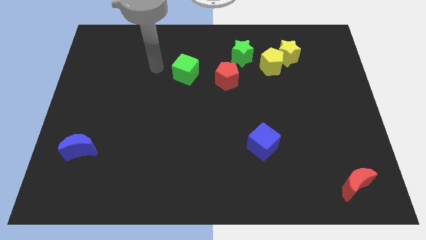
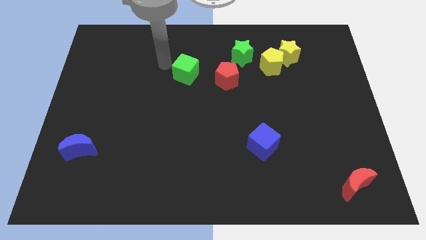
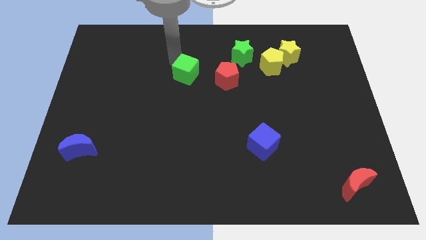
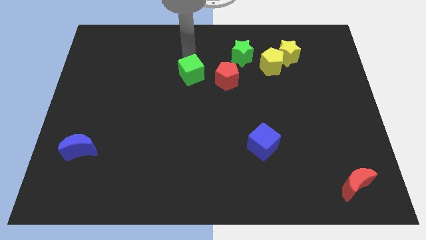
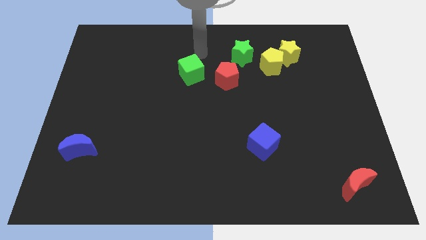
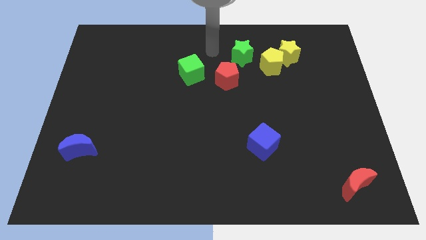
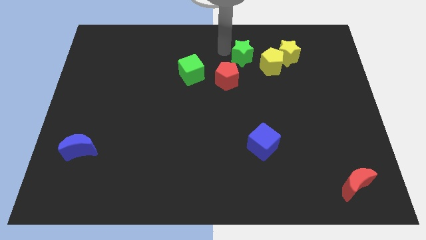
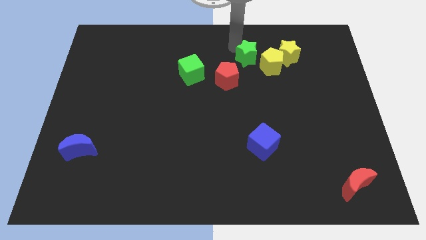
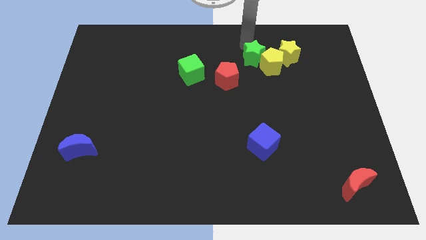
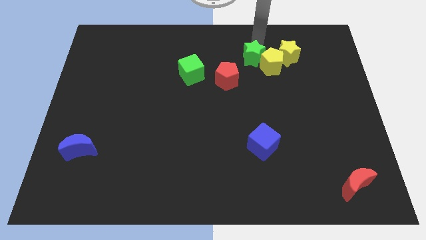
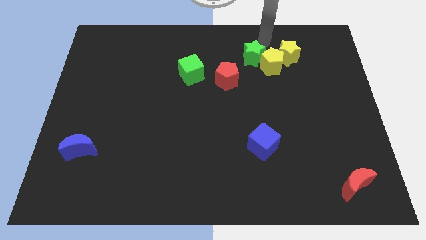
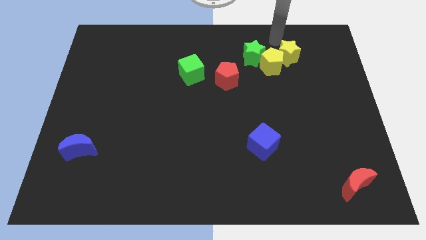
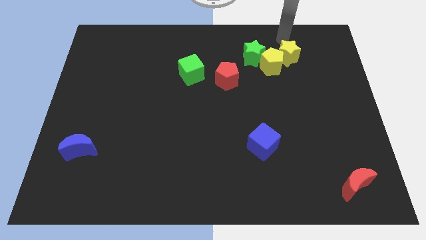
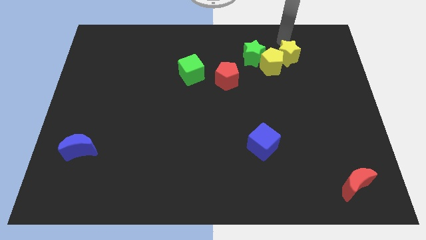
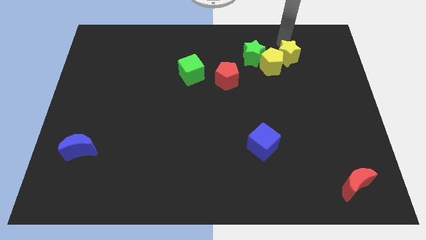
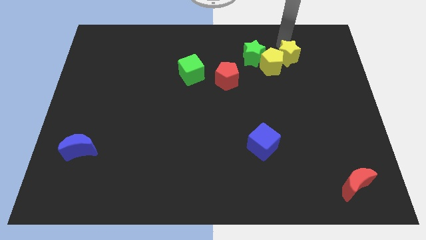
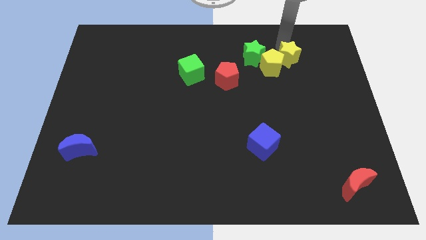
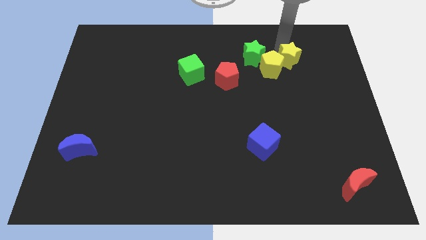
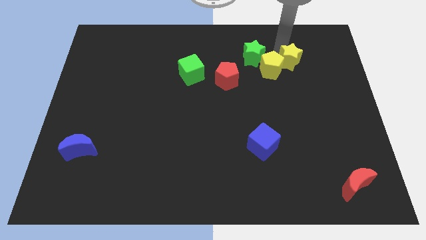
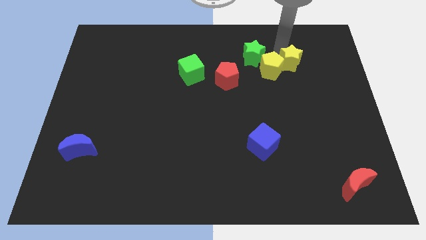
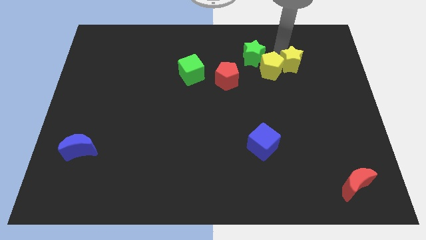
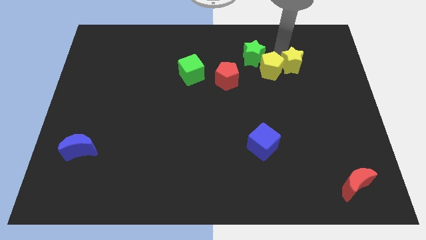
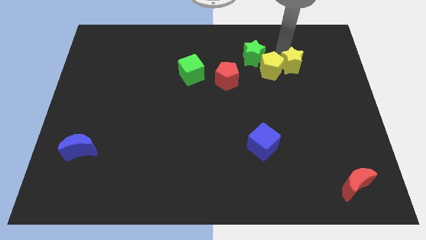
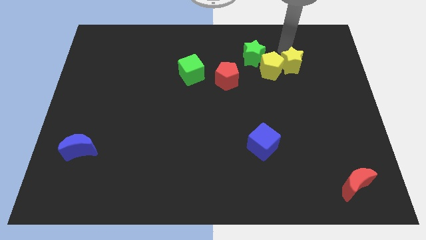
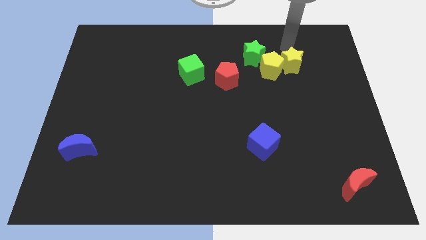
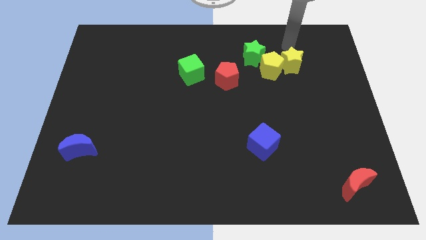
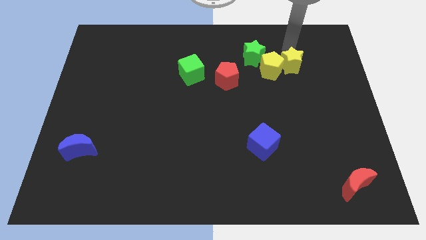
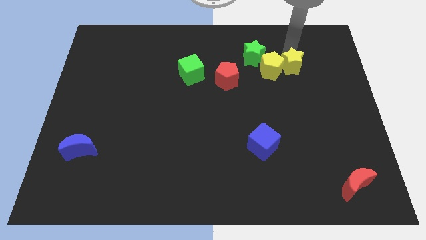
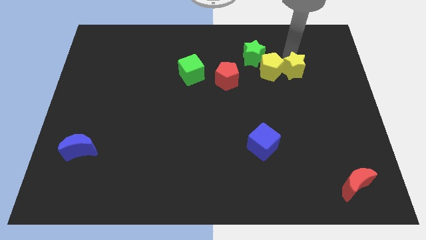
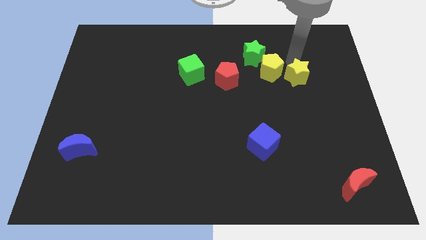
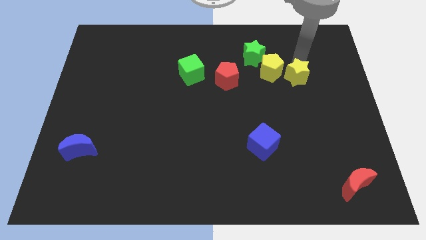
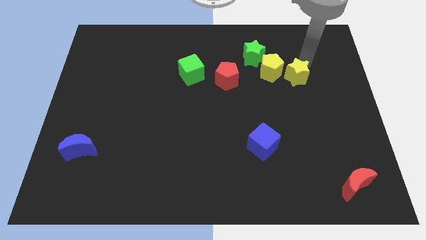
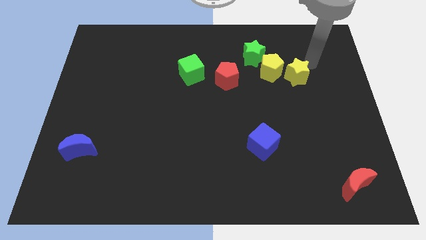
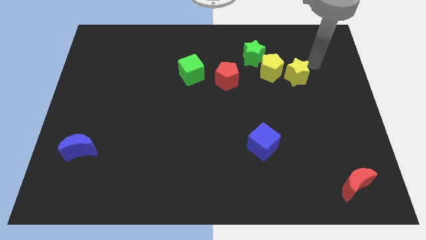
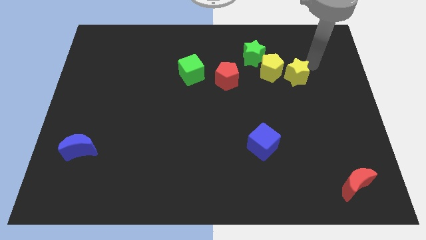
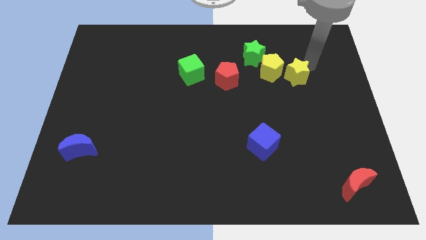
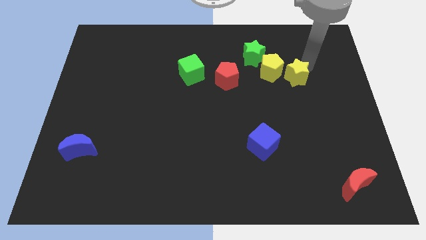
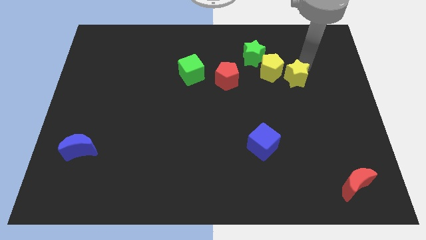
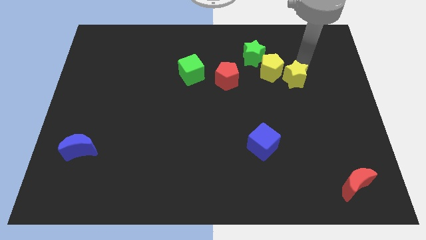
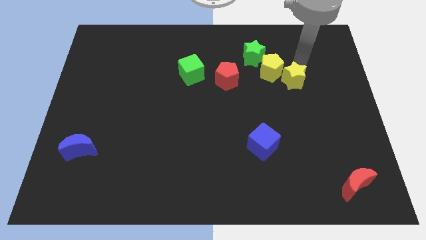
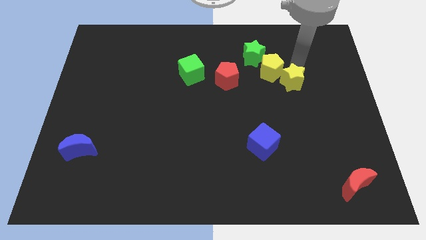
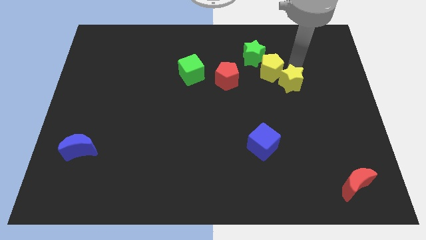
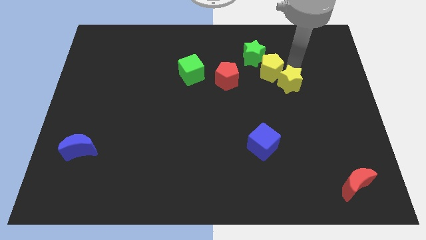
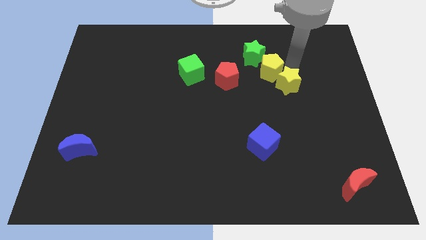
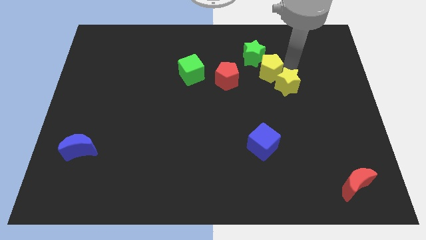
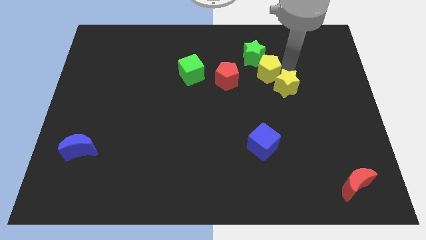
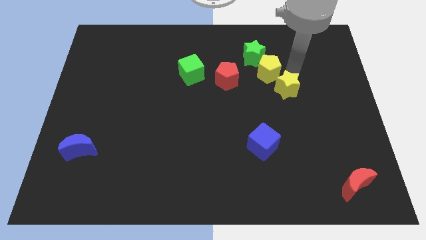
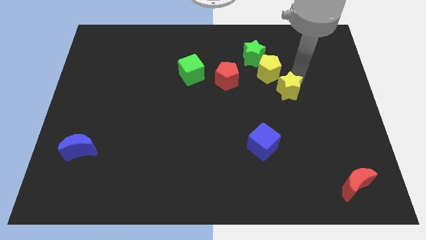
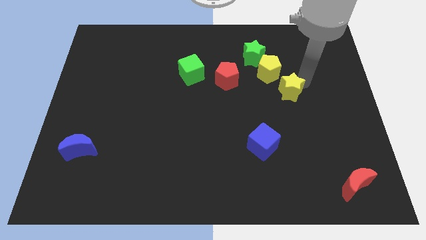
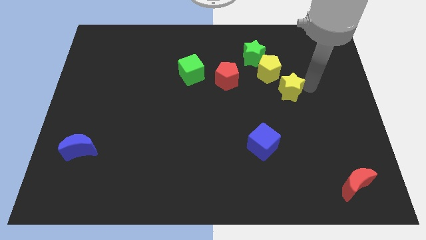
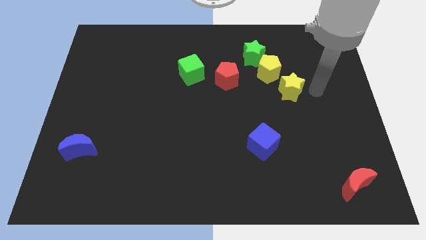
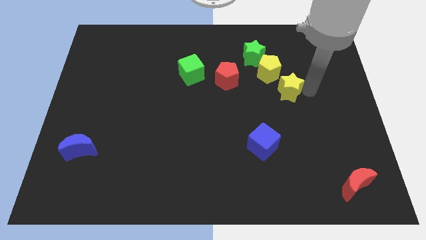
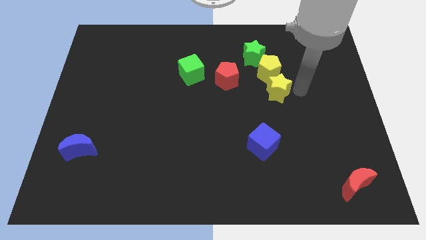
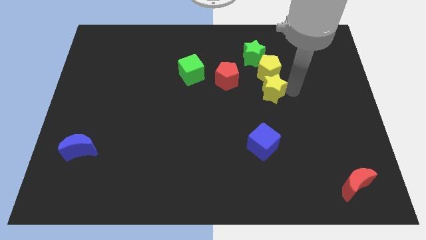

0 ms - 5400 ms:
push the yellow star below the green star

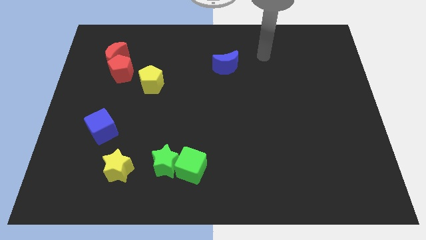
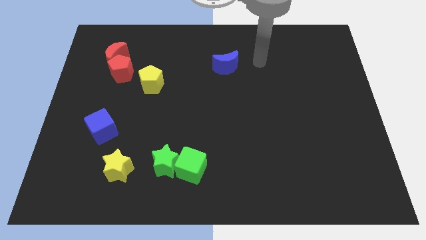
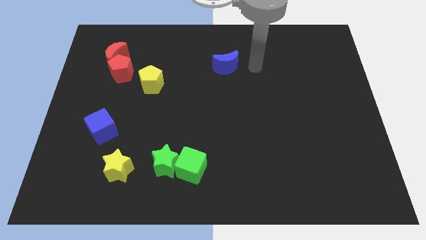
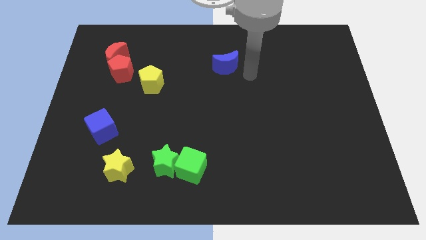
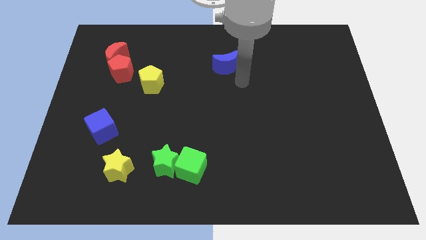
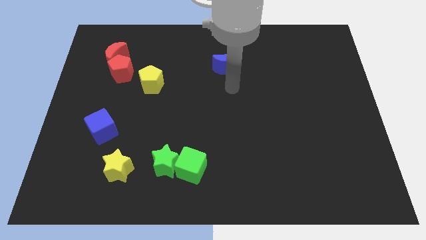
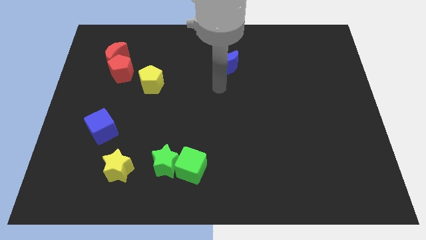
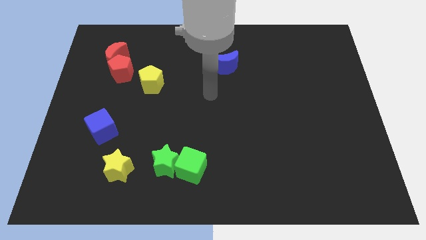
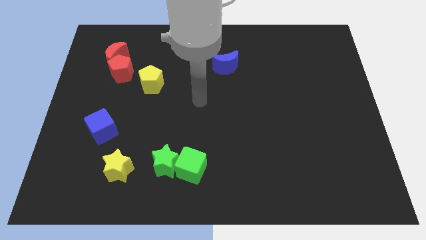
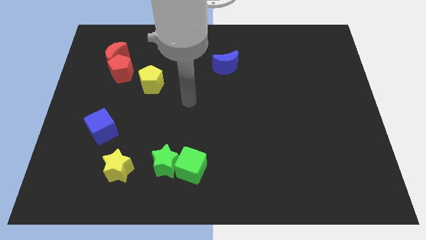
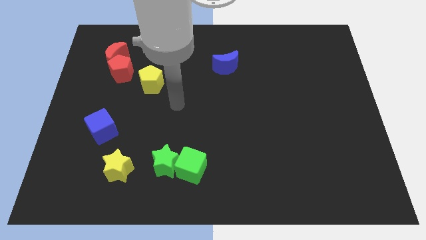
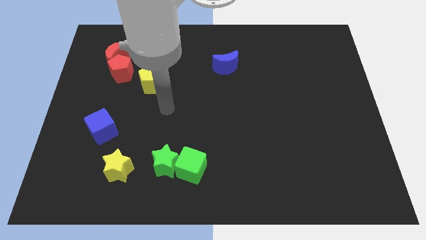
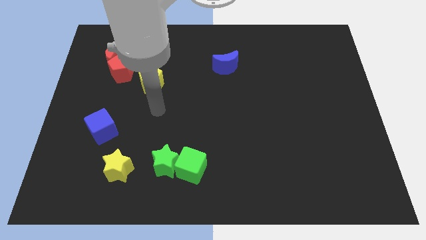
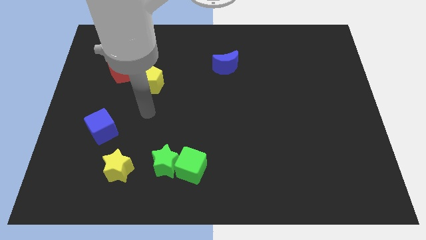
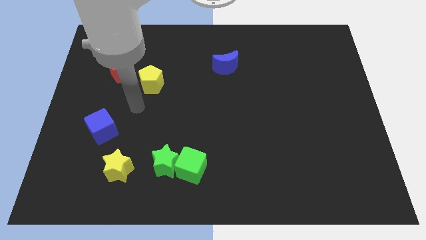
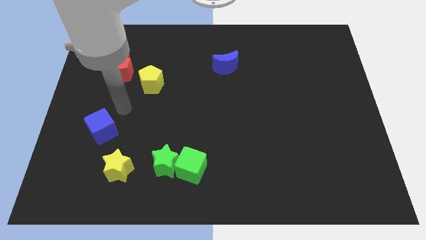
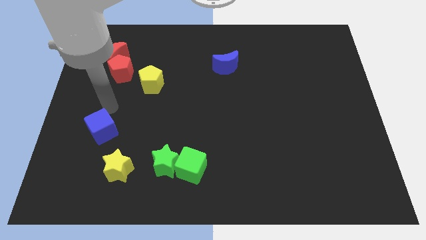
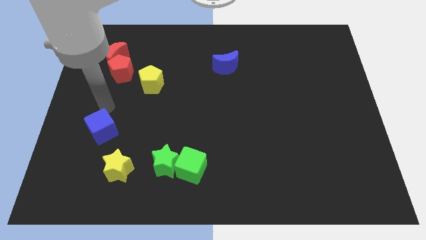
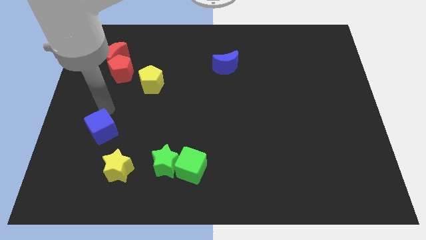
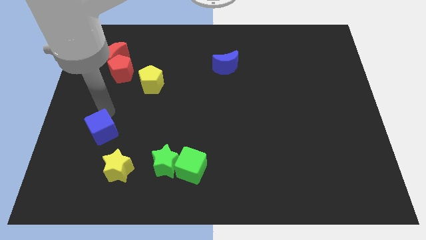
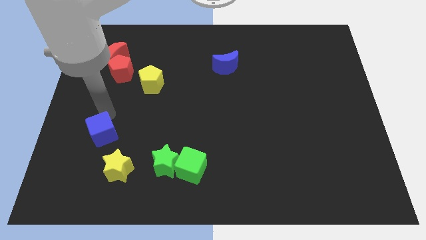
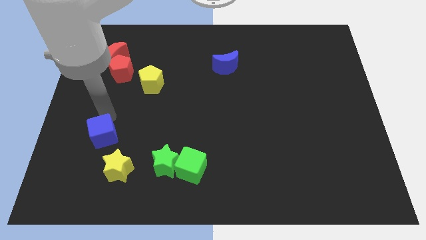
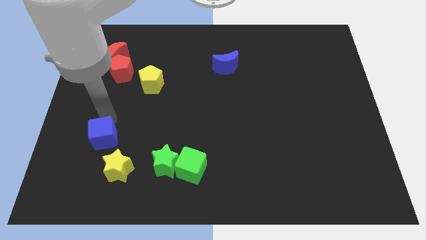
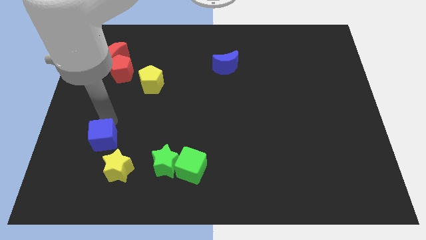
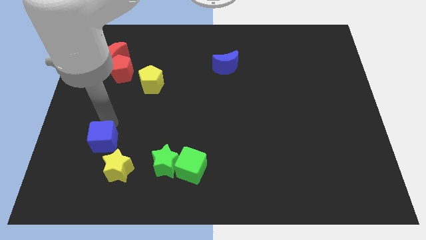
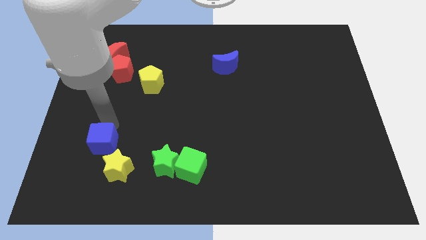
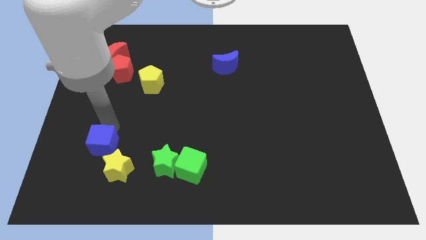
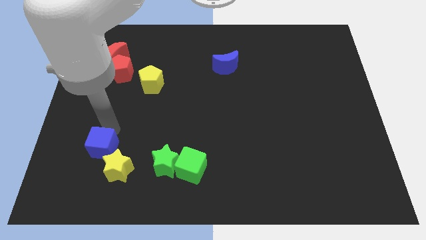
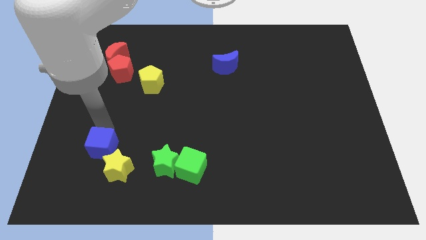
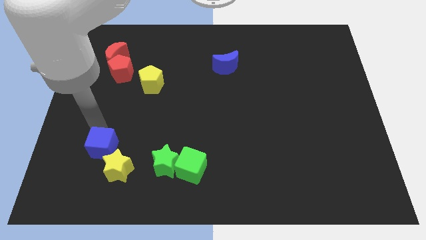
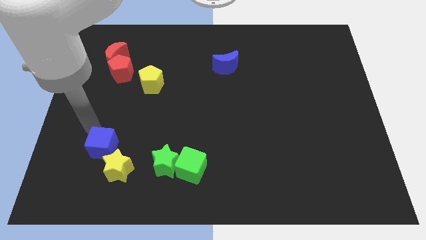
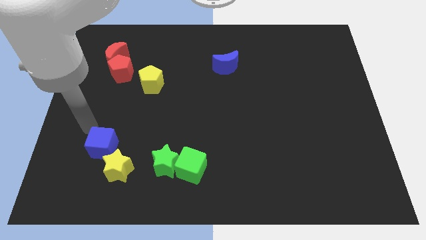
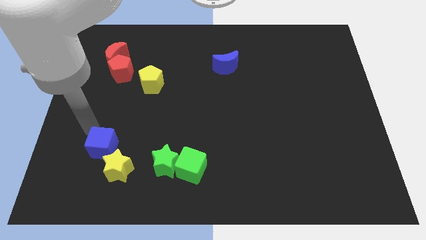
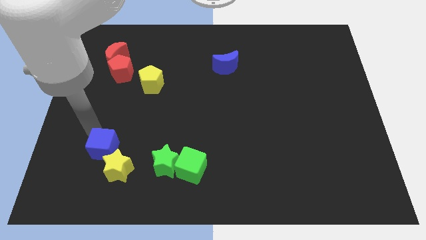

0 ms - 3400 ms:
put the blue cube to the left of the green star
